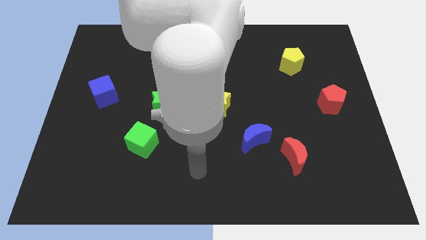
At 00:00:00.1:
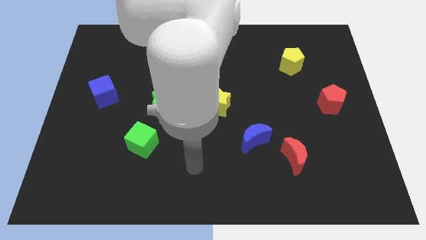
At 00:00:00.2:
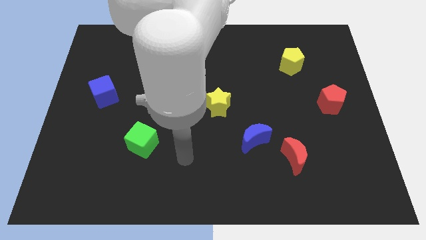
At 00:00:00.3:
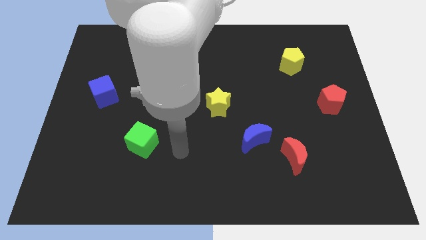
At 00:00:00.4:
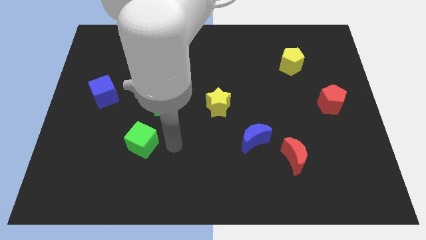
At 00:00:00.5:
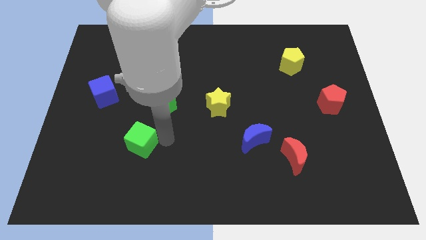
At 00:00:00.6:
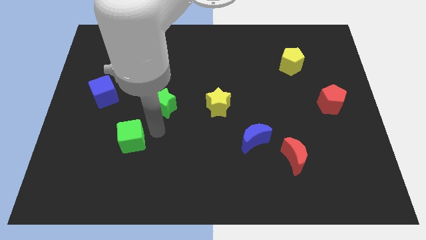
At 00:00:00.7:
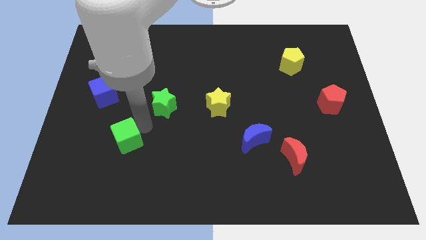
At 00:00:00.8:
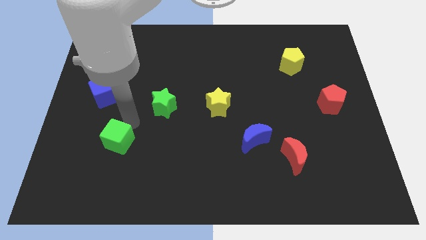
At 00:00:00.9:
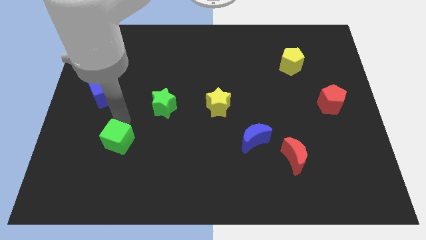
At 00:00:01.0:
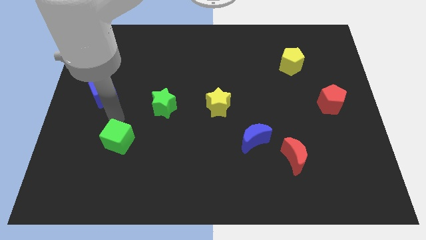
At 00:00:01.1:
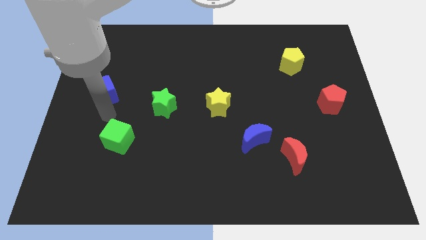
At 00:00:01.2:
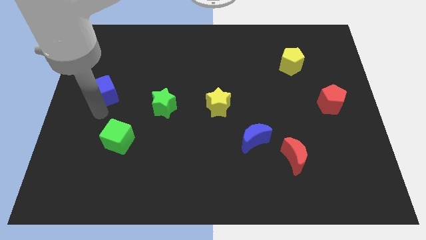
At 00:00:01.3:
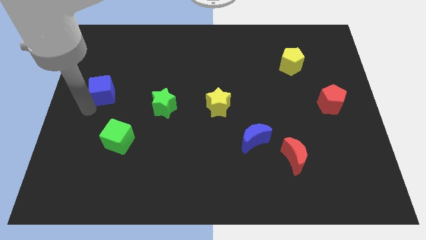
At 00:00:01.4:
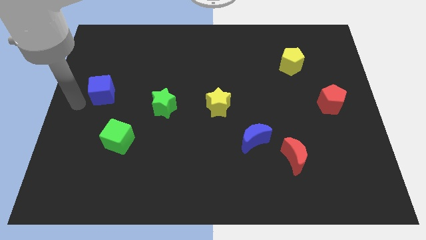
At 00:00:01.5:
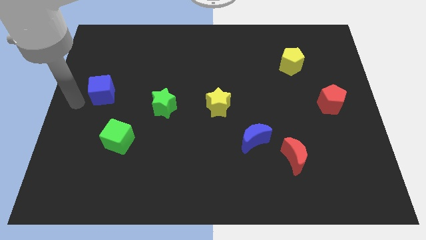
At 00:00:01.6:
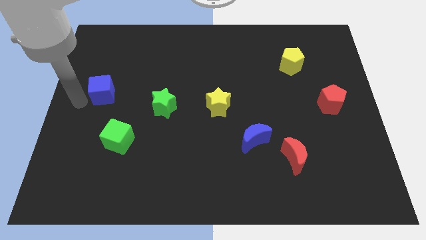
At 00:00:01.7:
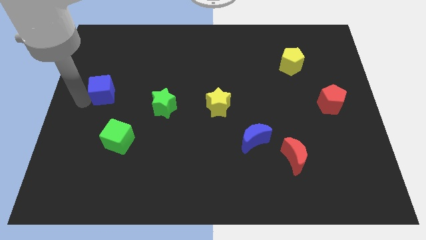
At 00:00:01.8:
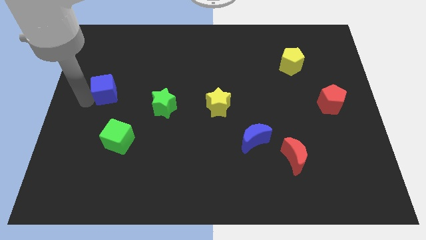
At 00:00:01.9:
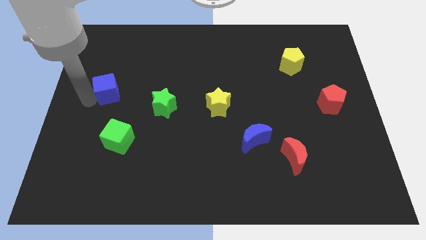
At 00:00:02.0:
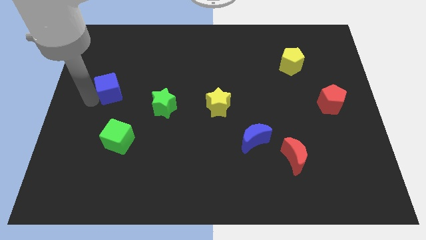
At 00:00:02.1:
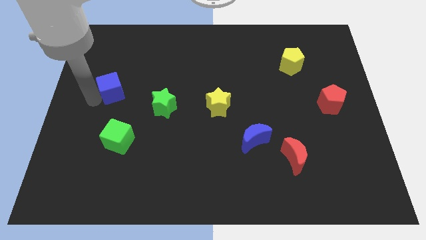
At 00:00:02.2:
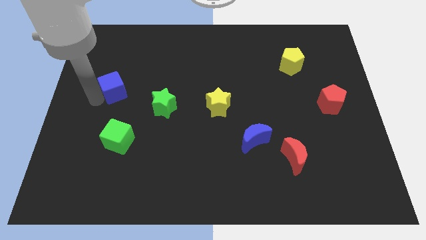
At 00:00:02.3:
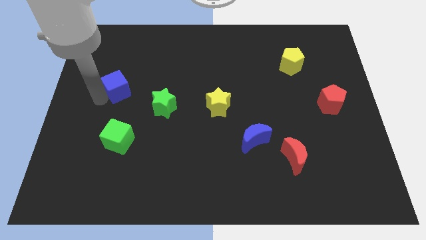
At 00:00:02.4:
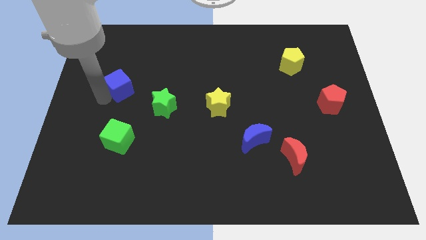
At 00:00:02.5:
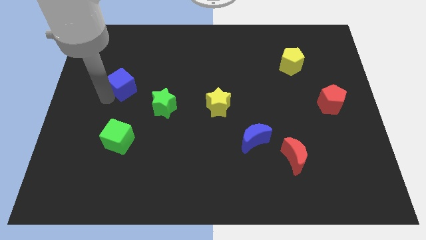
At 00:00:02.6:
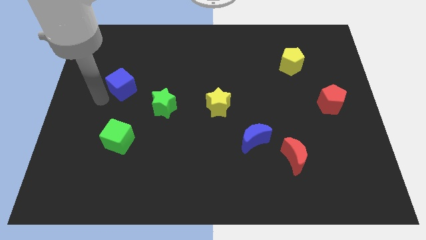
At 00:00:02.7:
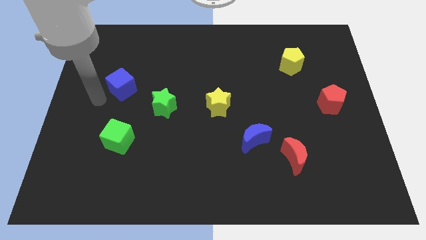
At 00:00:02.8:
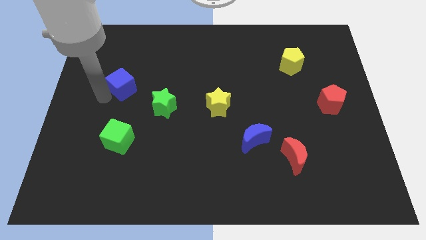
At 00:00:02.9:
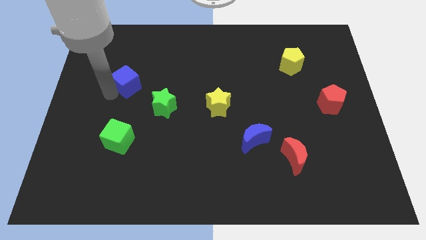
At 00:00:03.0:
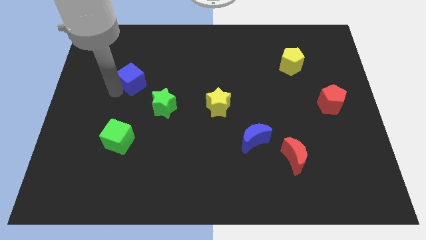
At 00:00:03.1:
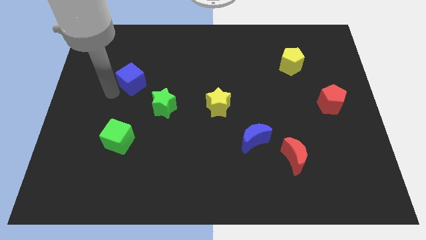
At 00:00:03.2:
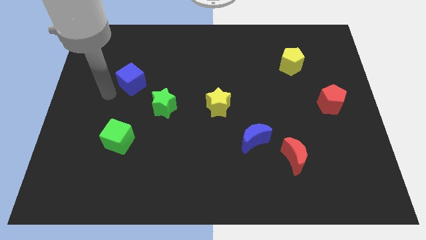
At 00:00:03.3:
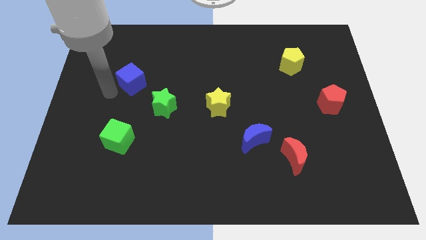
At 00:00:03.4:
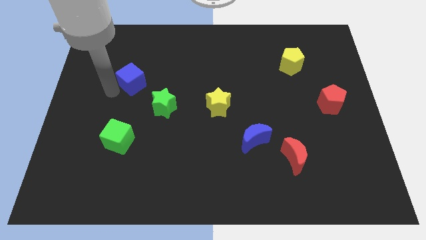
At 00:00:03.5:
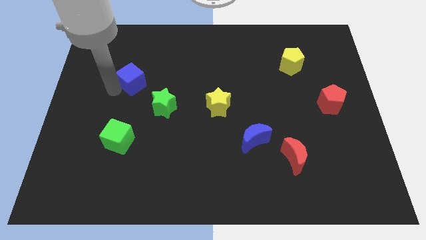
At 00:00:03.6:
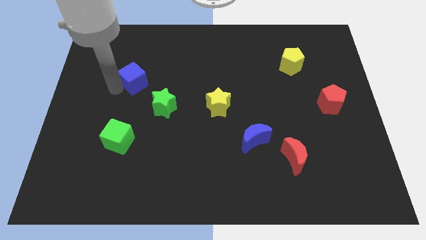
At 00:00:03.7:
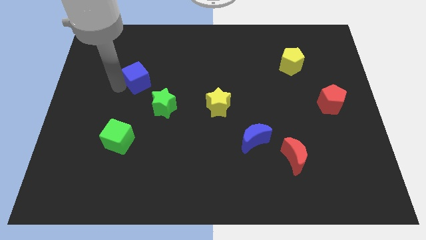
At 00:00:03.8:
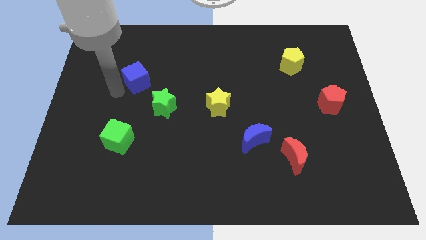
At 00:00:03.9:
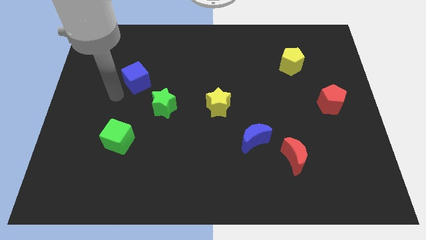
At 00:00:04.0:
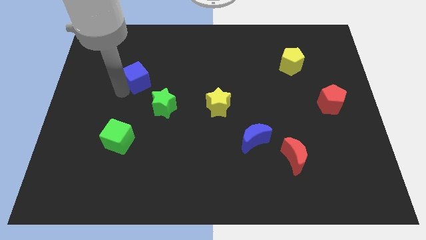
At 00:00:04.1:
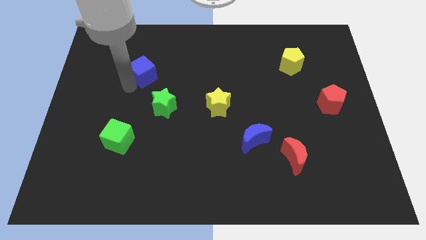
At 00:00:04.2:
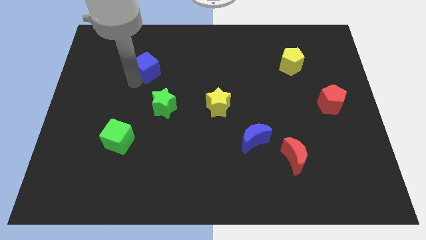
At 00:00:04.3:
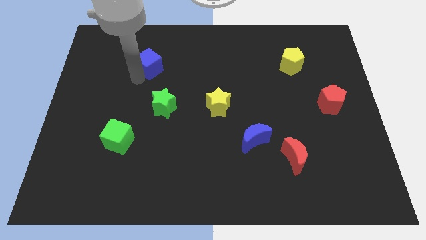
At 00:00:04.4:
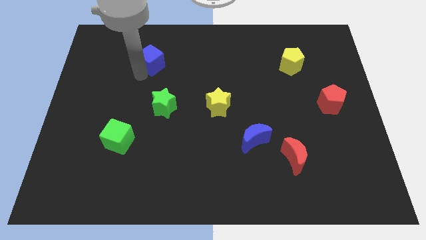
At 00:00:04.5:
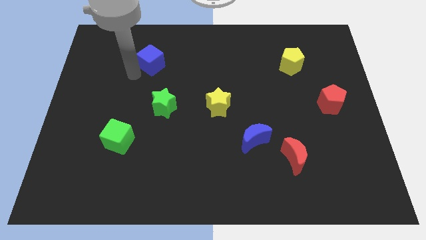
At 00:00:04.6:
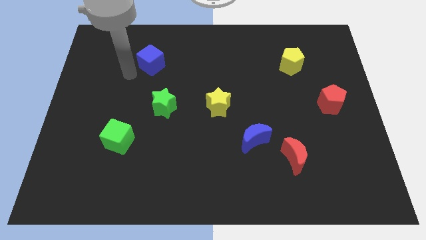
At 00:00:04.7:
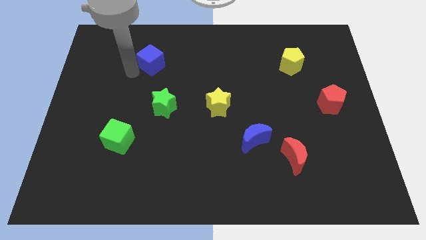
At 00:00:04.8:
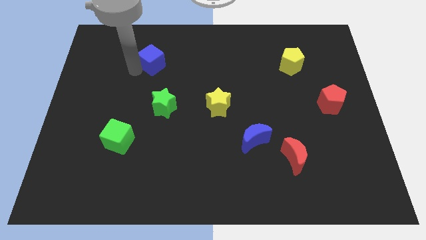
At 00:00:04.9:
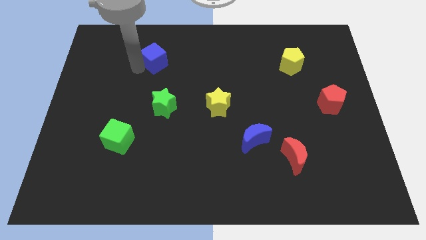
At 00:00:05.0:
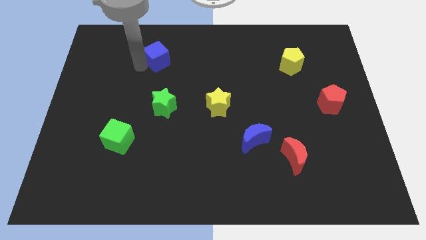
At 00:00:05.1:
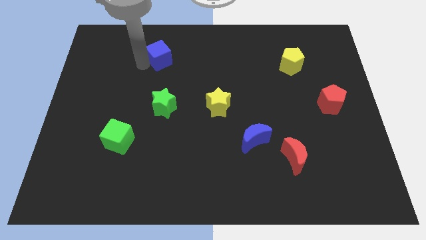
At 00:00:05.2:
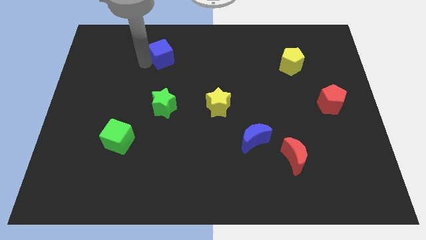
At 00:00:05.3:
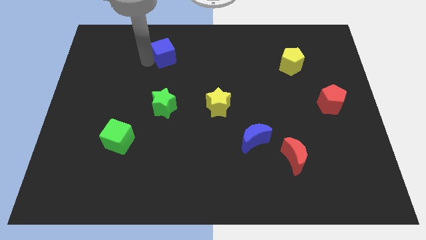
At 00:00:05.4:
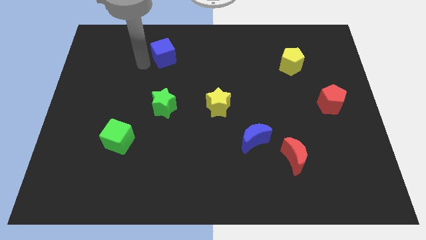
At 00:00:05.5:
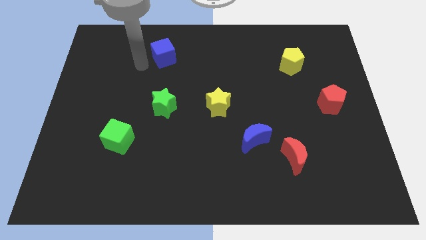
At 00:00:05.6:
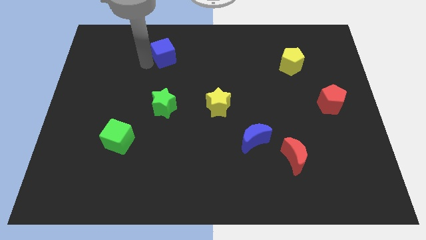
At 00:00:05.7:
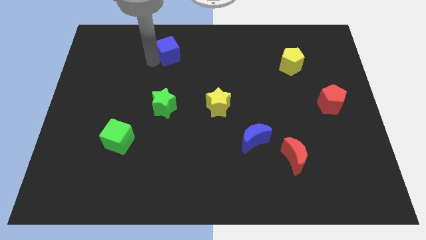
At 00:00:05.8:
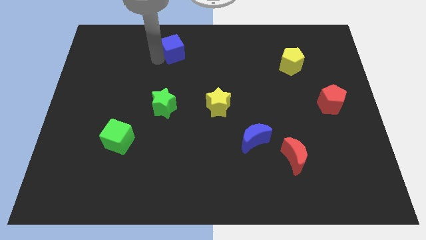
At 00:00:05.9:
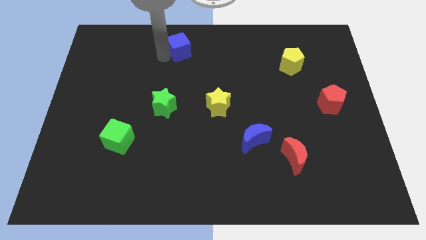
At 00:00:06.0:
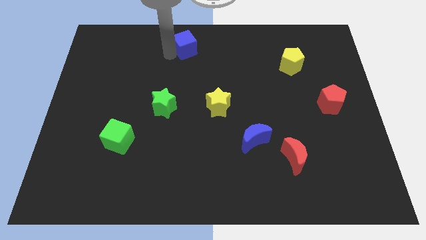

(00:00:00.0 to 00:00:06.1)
put the blue cube to the towards your base
